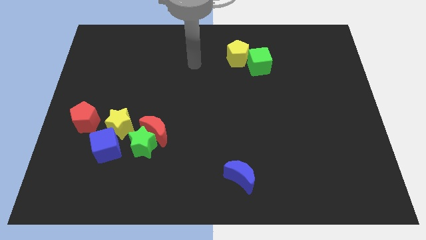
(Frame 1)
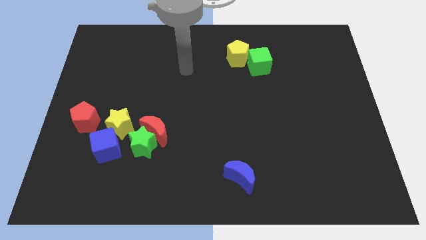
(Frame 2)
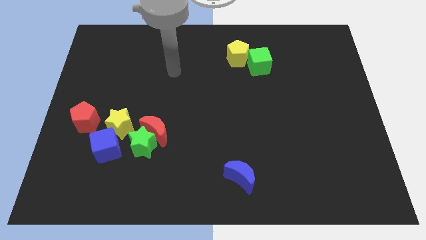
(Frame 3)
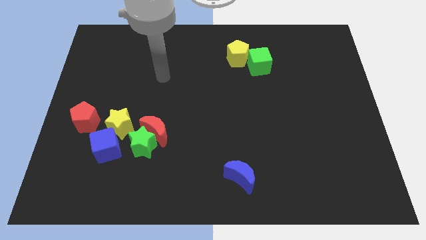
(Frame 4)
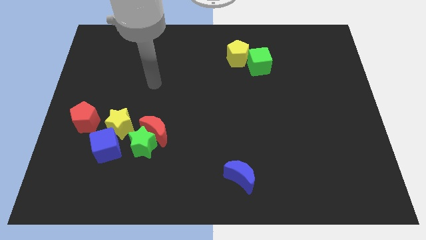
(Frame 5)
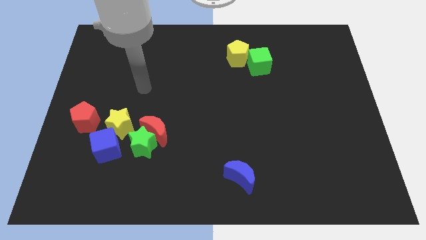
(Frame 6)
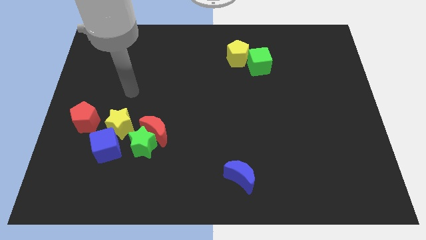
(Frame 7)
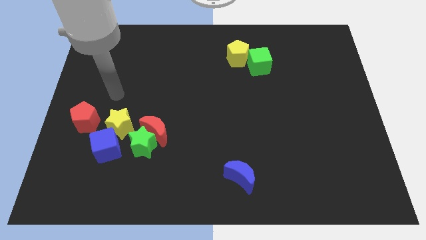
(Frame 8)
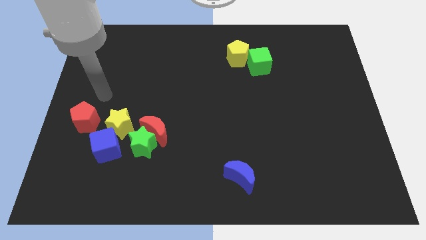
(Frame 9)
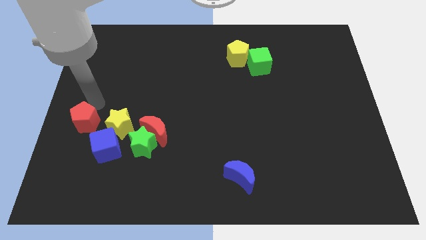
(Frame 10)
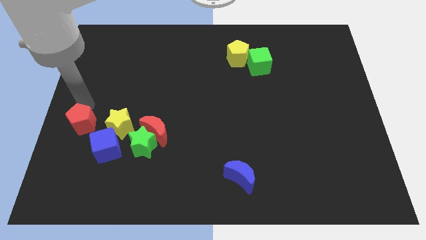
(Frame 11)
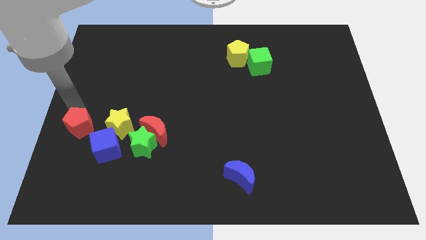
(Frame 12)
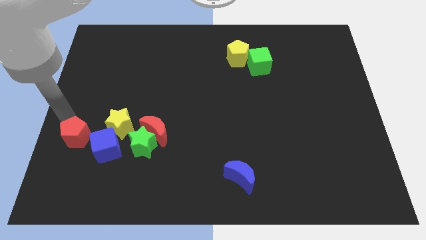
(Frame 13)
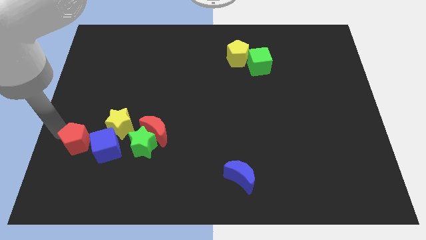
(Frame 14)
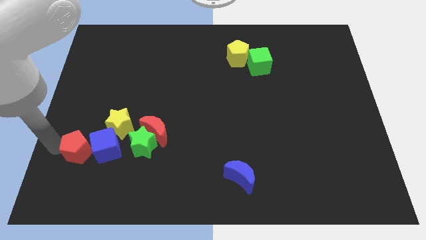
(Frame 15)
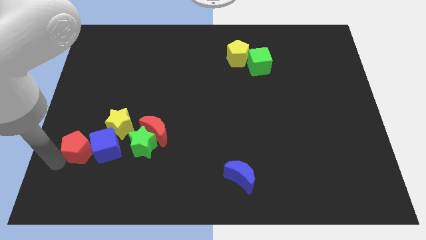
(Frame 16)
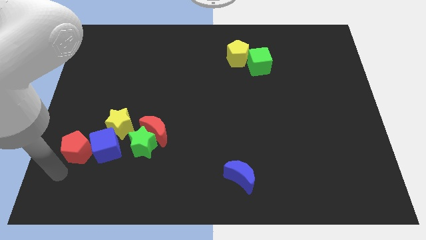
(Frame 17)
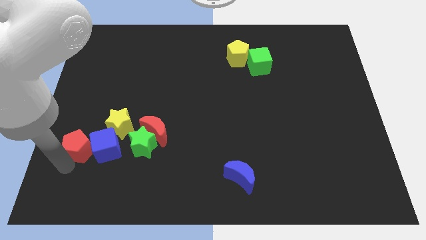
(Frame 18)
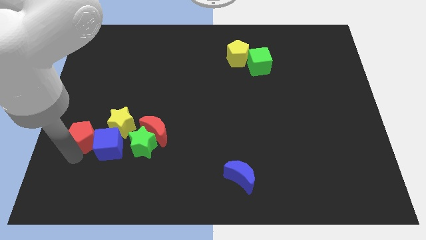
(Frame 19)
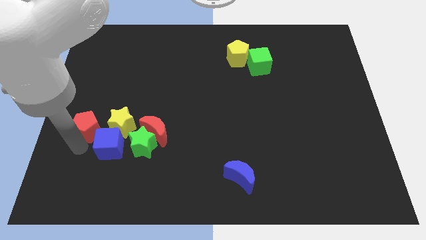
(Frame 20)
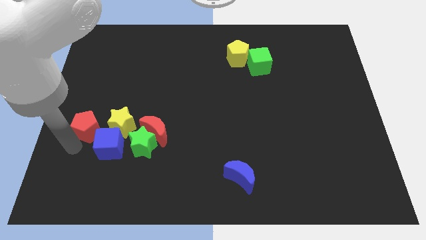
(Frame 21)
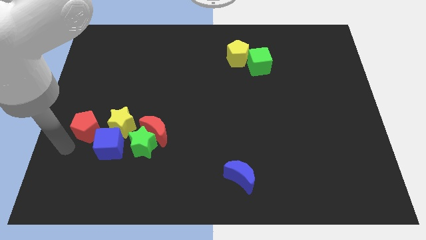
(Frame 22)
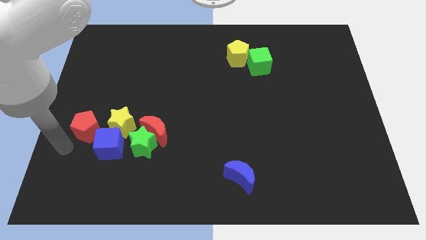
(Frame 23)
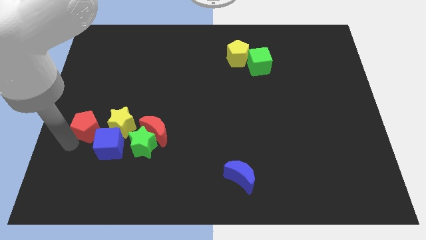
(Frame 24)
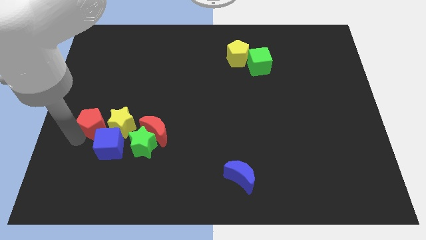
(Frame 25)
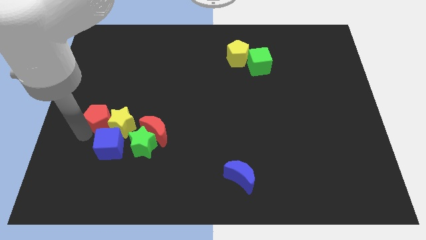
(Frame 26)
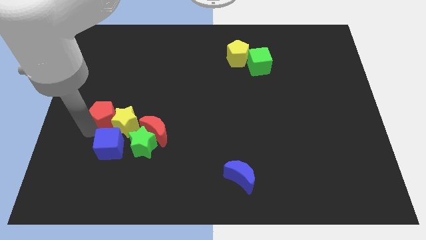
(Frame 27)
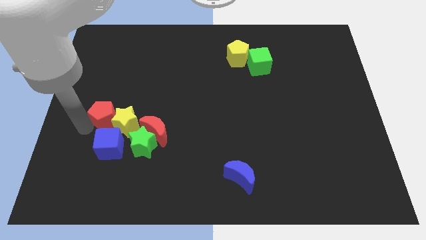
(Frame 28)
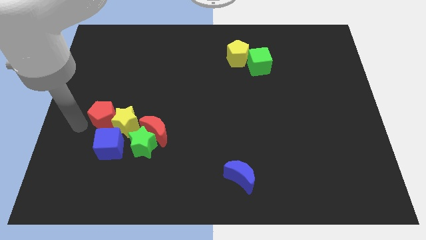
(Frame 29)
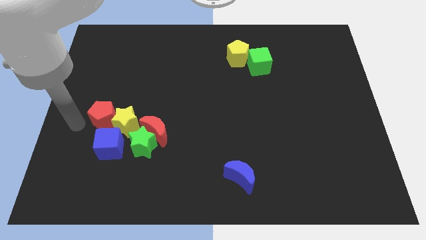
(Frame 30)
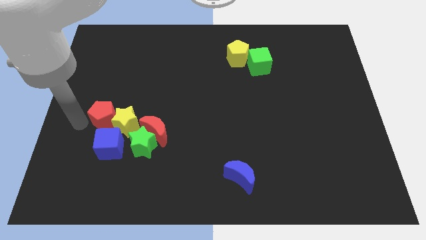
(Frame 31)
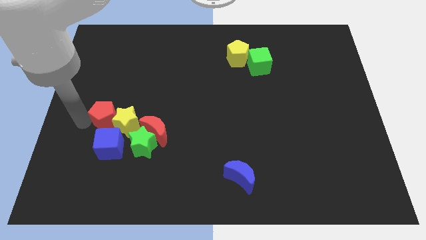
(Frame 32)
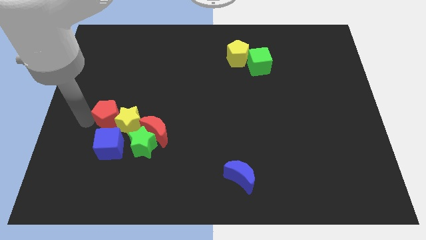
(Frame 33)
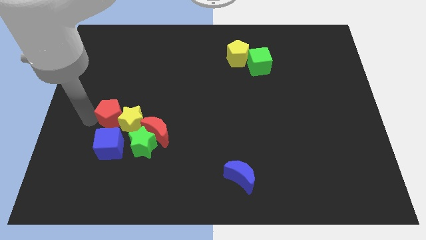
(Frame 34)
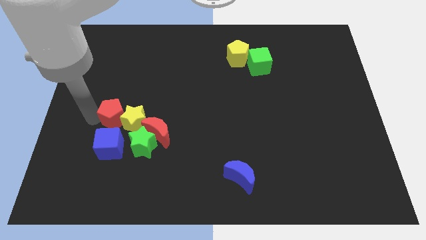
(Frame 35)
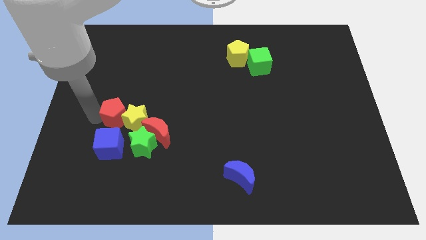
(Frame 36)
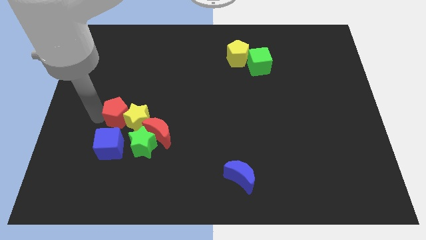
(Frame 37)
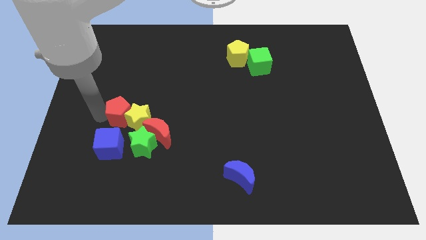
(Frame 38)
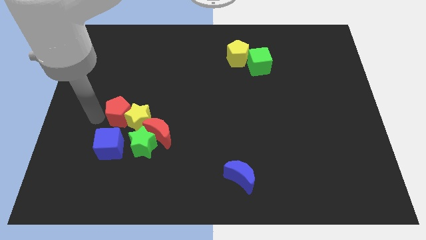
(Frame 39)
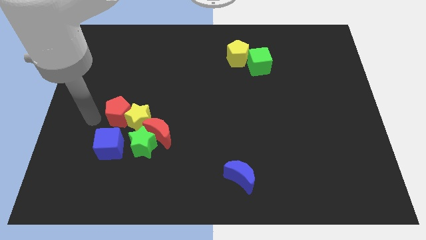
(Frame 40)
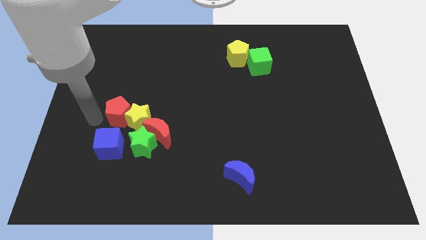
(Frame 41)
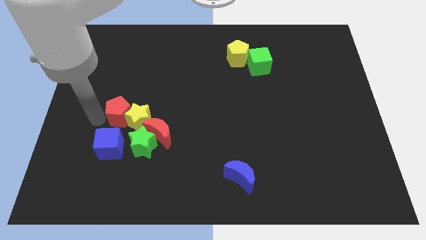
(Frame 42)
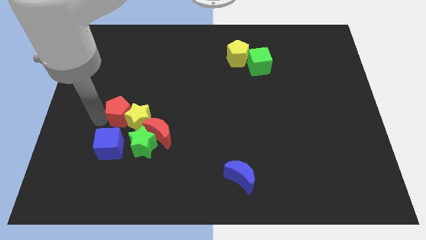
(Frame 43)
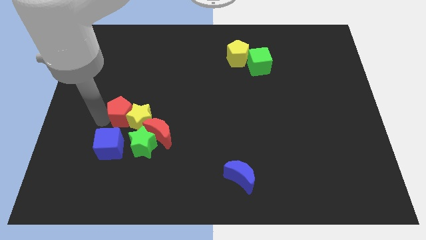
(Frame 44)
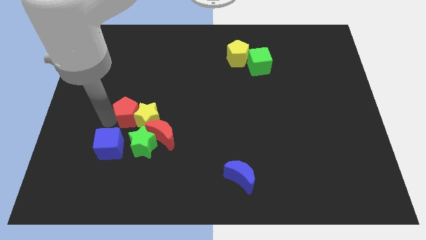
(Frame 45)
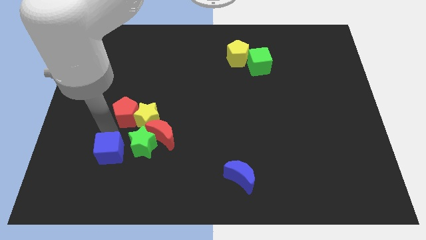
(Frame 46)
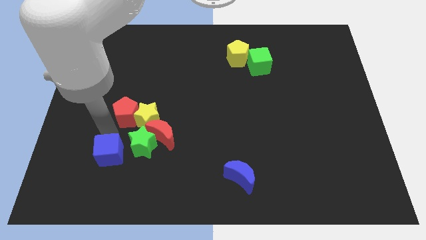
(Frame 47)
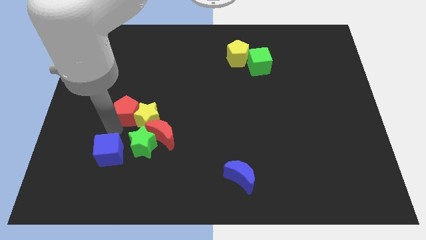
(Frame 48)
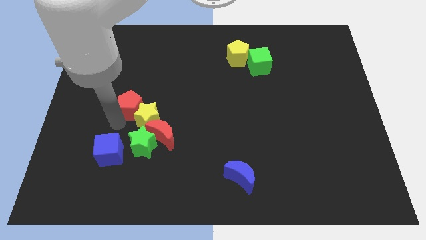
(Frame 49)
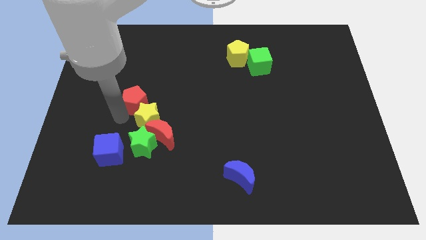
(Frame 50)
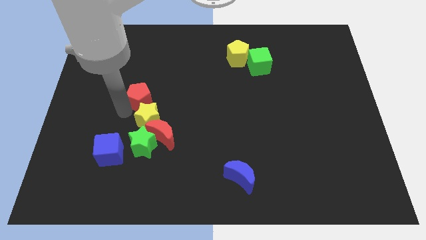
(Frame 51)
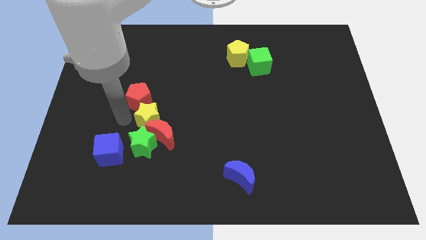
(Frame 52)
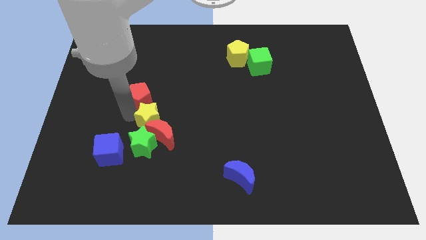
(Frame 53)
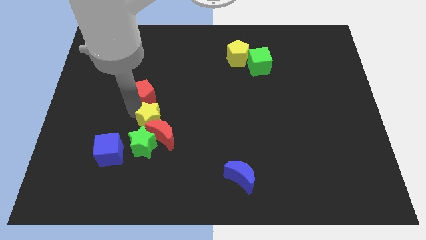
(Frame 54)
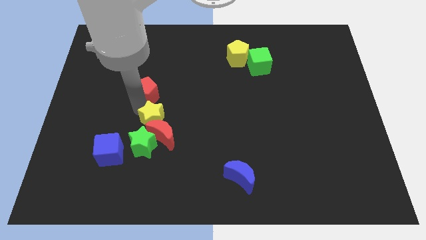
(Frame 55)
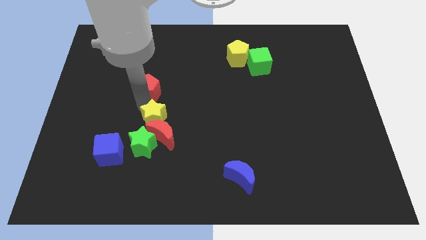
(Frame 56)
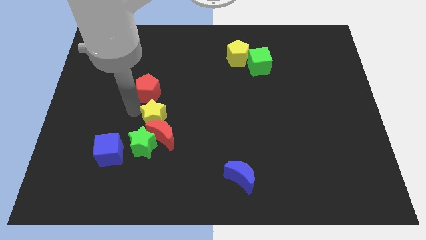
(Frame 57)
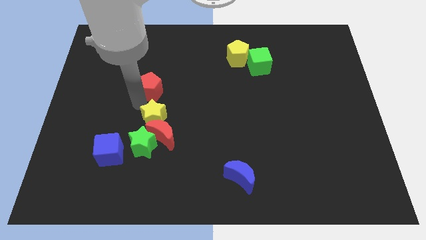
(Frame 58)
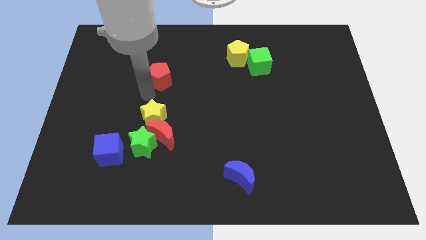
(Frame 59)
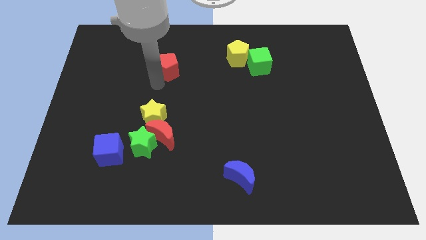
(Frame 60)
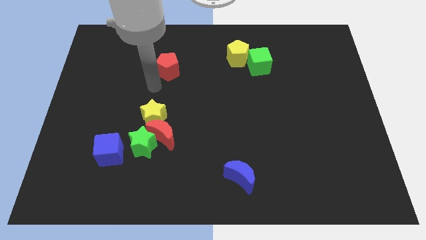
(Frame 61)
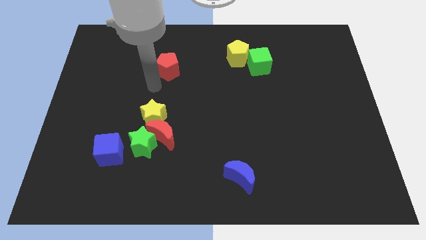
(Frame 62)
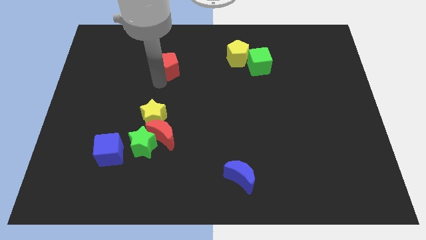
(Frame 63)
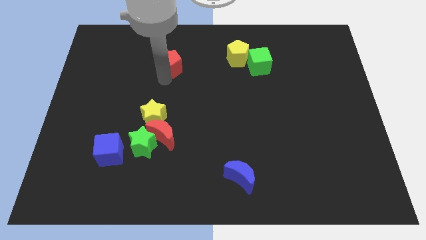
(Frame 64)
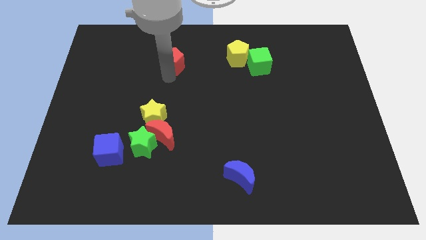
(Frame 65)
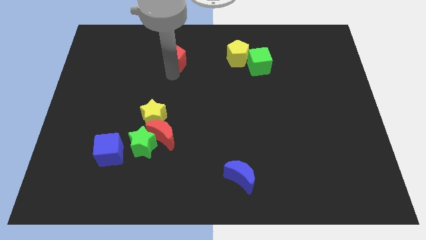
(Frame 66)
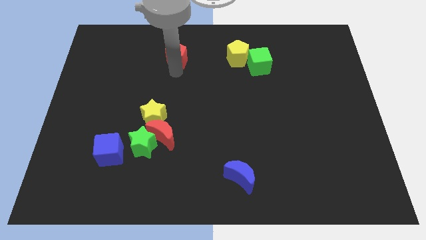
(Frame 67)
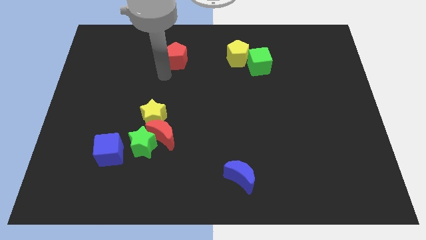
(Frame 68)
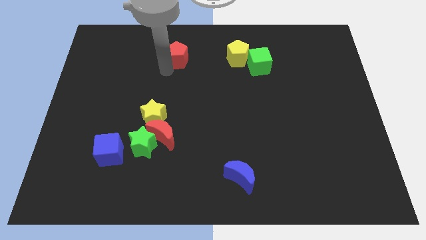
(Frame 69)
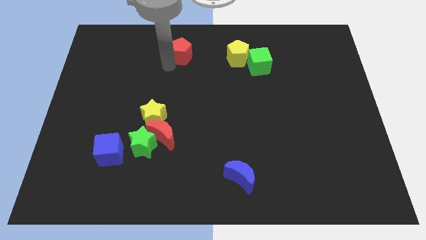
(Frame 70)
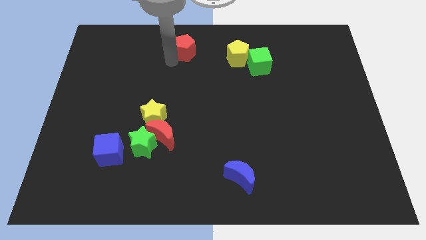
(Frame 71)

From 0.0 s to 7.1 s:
push the red pentagon to the top side
